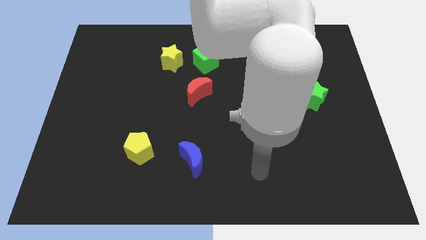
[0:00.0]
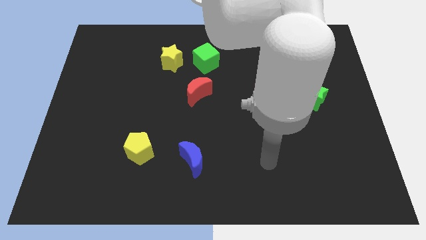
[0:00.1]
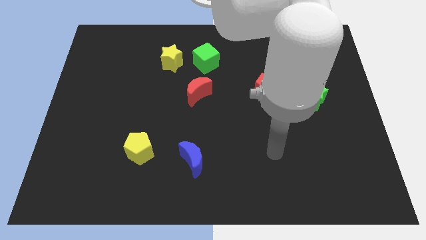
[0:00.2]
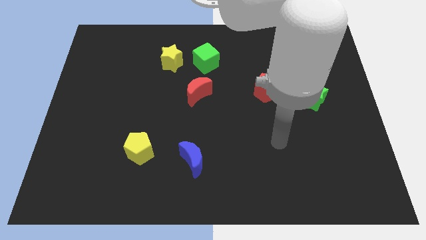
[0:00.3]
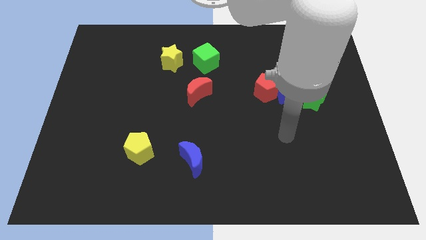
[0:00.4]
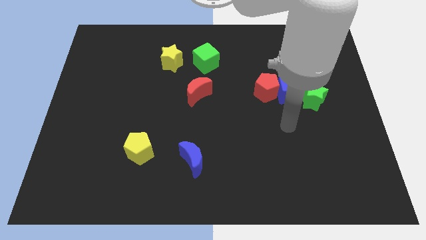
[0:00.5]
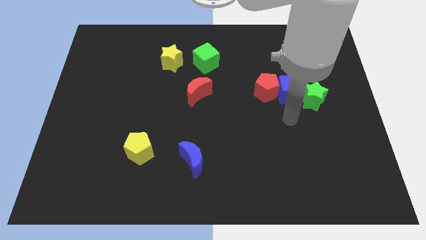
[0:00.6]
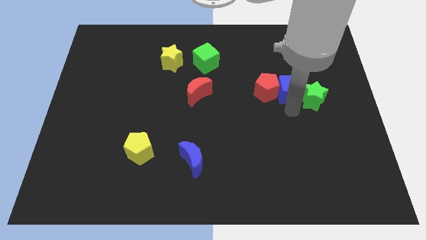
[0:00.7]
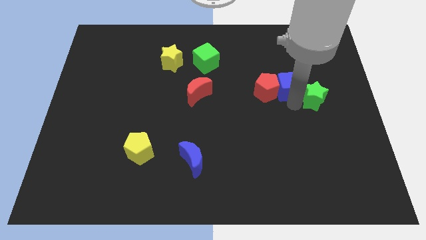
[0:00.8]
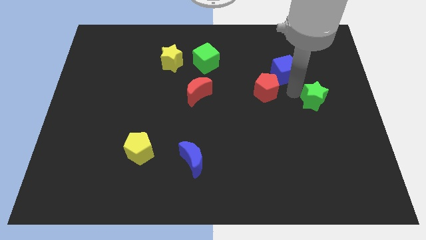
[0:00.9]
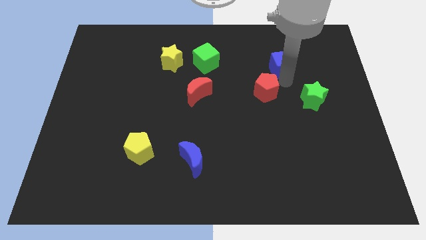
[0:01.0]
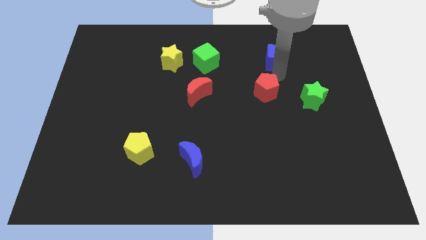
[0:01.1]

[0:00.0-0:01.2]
separate the red pentagon from the blue cube

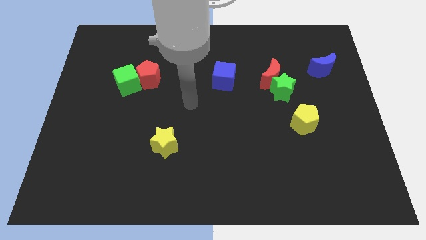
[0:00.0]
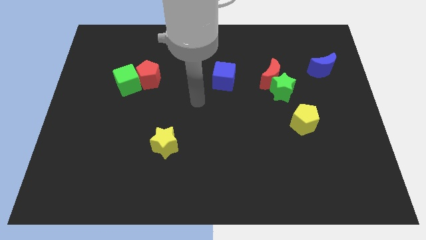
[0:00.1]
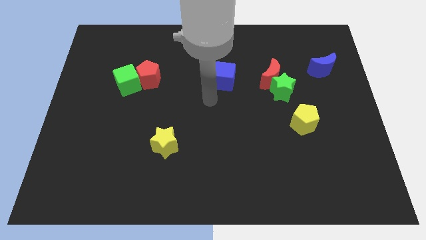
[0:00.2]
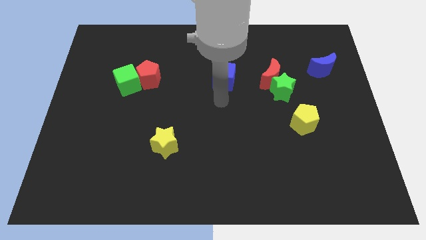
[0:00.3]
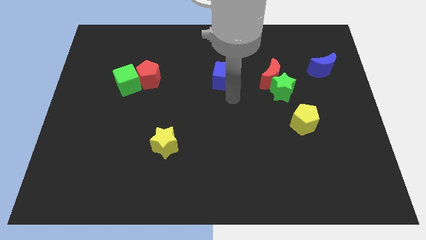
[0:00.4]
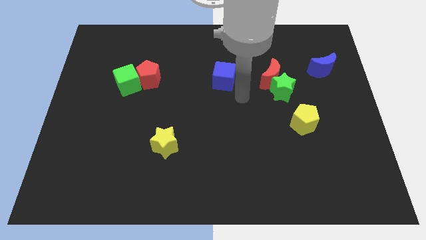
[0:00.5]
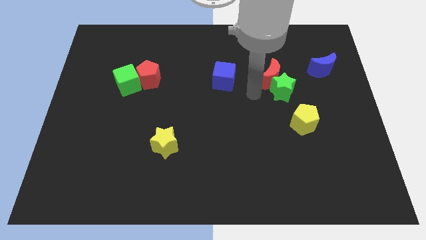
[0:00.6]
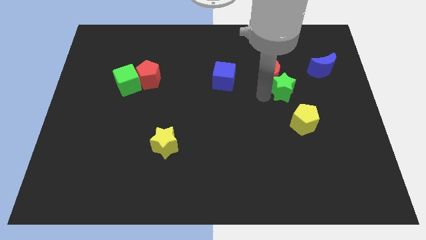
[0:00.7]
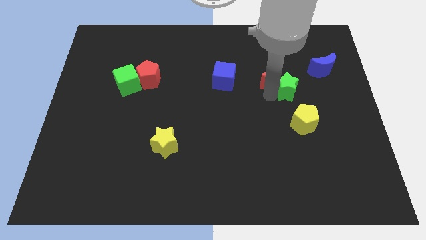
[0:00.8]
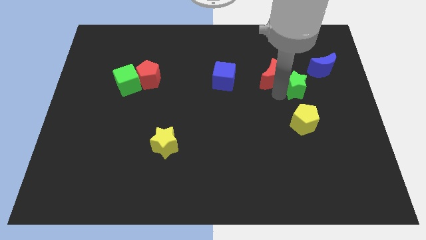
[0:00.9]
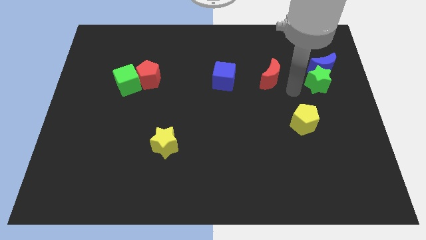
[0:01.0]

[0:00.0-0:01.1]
pull the red moon apart from the green star

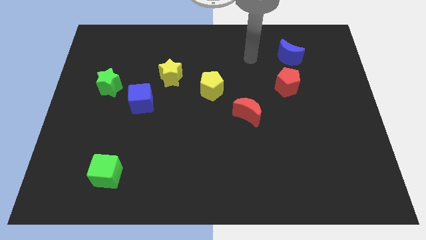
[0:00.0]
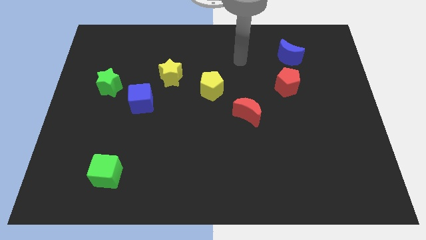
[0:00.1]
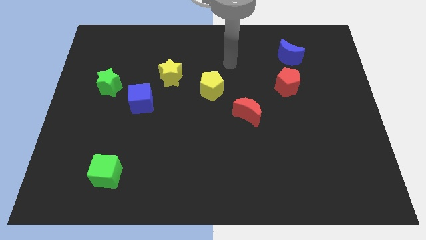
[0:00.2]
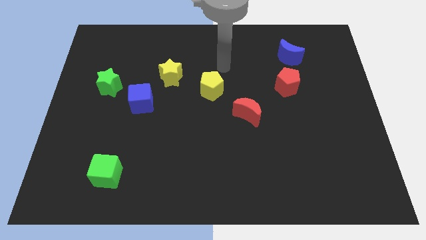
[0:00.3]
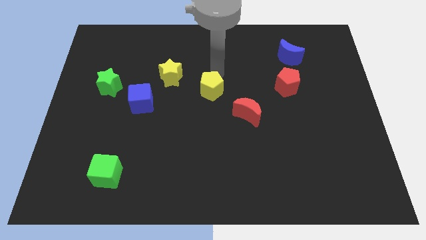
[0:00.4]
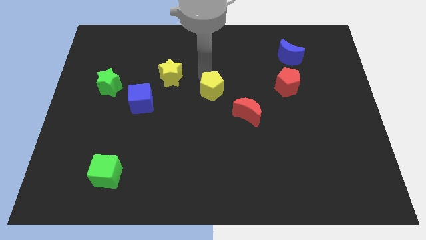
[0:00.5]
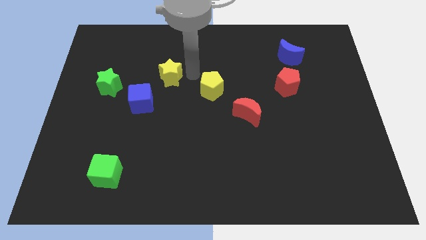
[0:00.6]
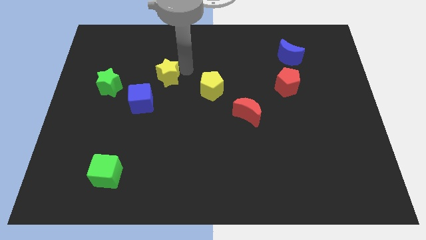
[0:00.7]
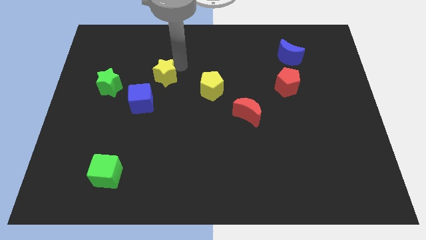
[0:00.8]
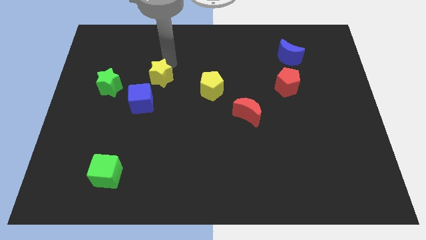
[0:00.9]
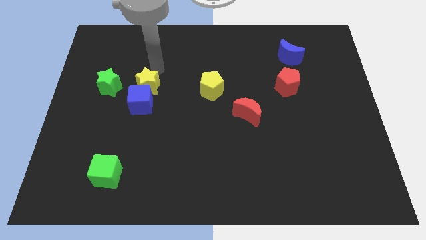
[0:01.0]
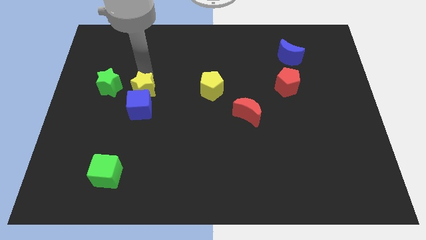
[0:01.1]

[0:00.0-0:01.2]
pull the blue cube apart from the green star

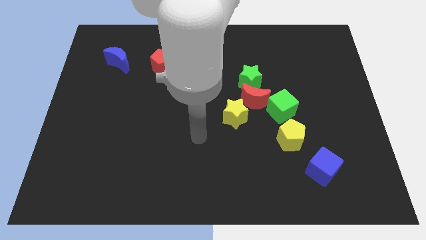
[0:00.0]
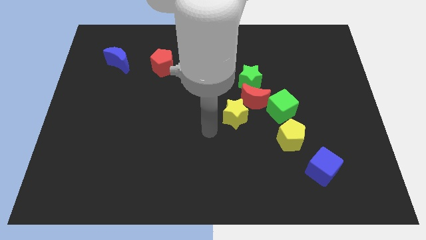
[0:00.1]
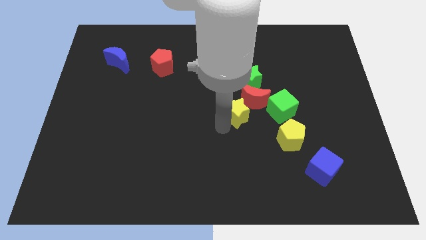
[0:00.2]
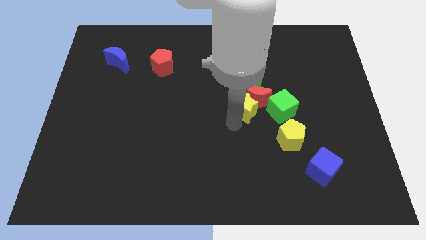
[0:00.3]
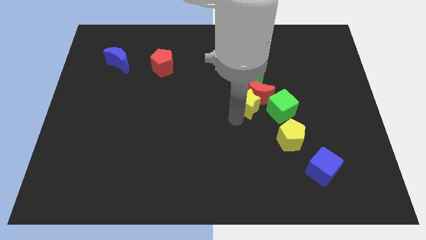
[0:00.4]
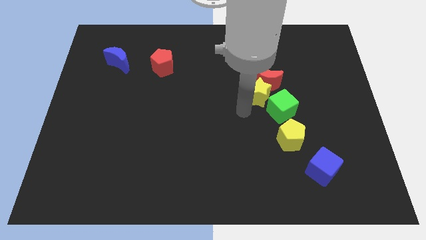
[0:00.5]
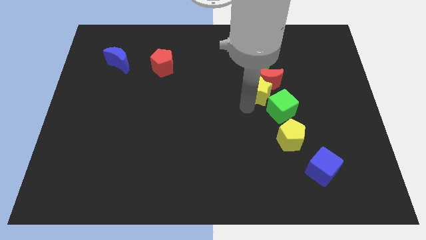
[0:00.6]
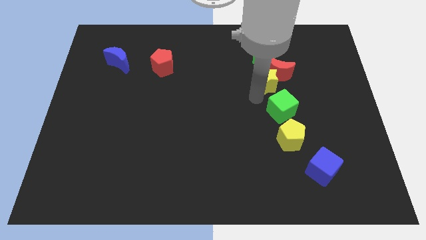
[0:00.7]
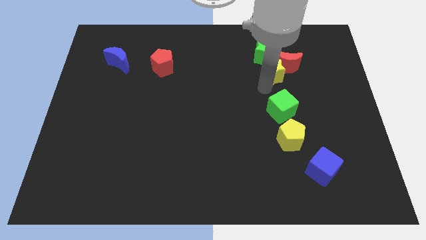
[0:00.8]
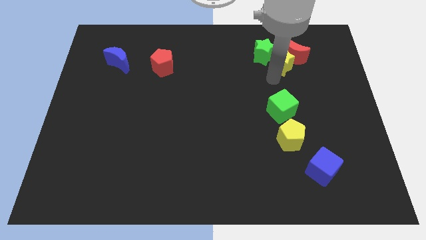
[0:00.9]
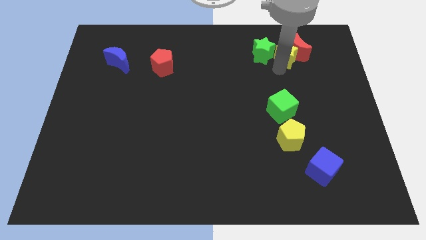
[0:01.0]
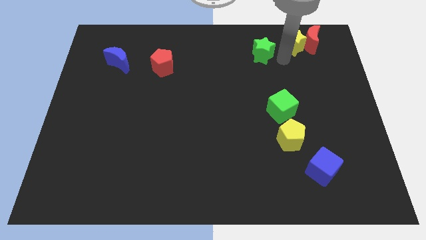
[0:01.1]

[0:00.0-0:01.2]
separate the green star from the red moon

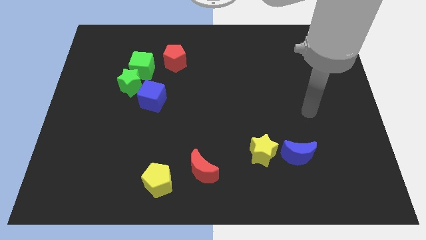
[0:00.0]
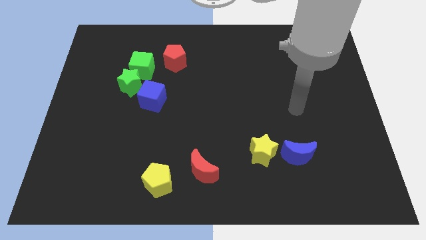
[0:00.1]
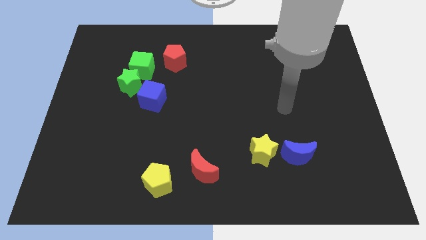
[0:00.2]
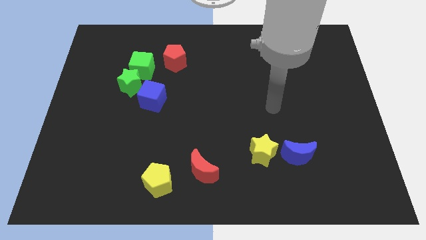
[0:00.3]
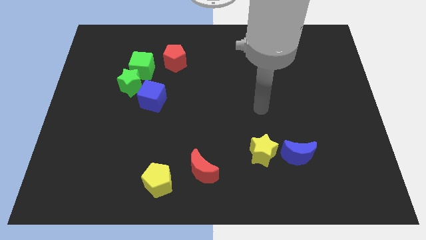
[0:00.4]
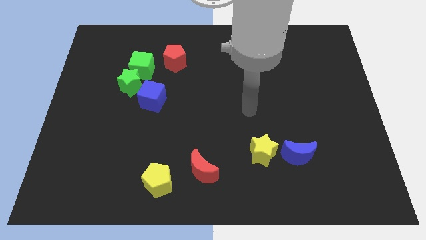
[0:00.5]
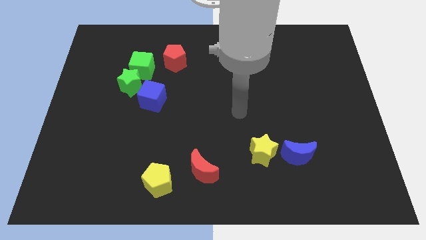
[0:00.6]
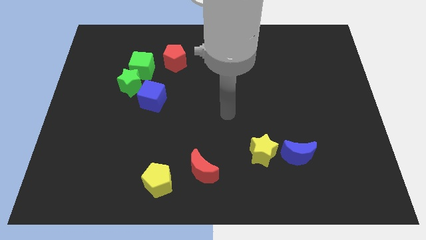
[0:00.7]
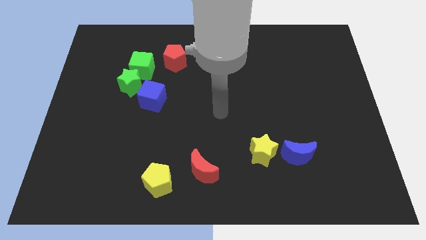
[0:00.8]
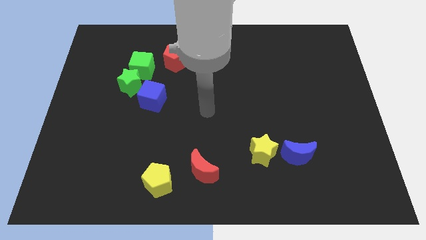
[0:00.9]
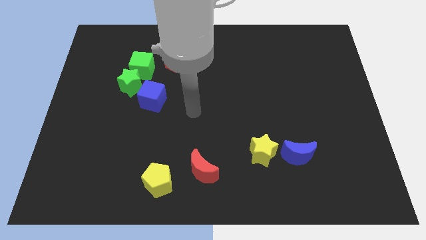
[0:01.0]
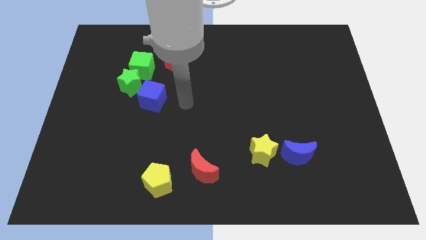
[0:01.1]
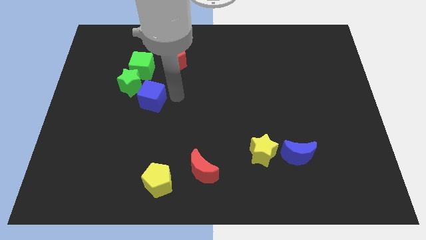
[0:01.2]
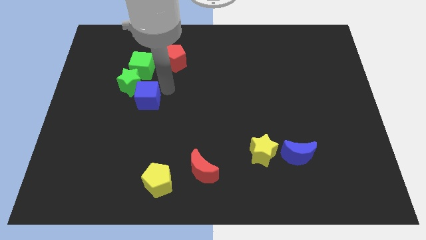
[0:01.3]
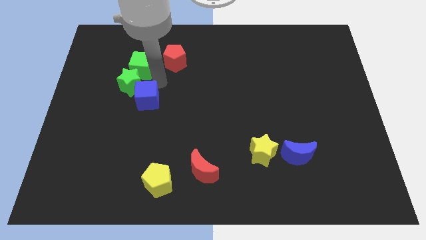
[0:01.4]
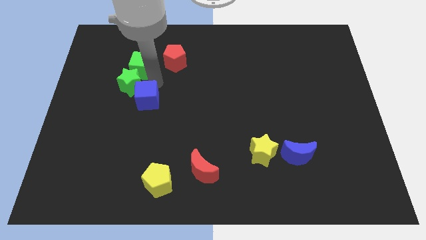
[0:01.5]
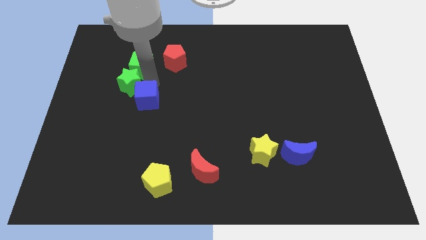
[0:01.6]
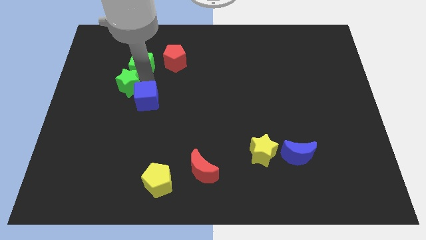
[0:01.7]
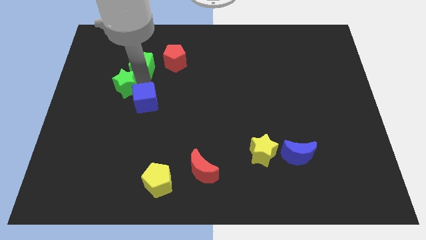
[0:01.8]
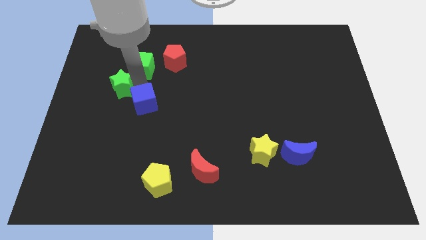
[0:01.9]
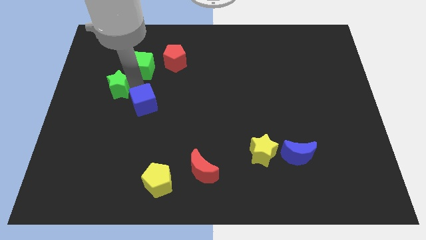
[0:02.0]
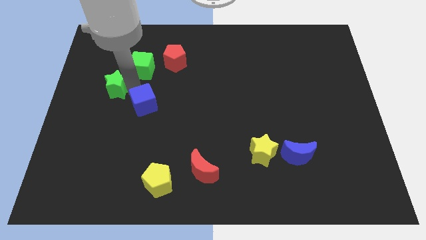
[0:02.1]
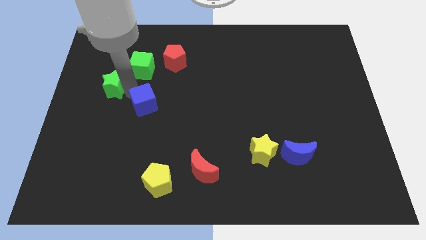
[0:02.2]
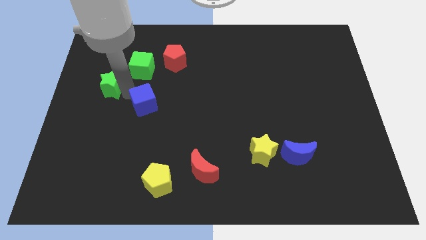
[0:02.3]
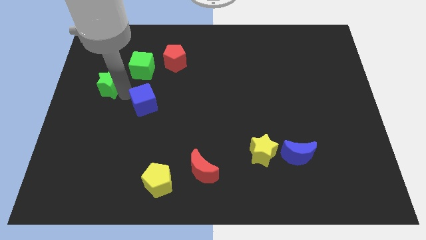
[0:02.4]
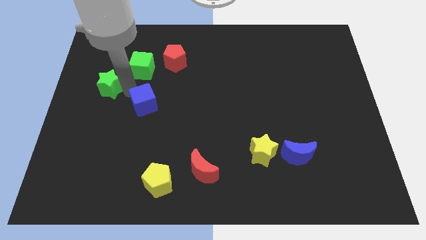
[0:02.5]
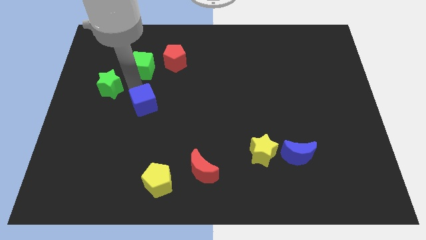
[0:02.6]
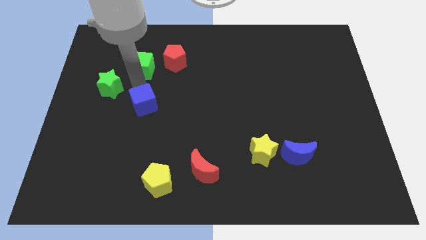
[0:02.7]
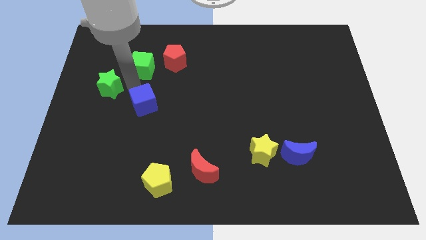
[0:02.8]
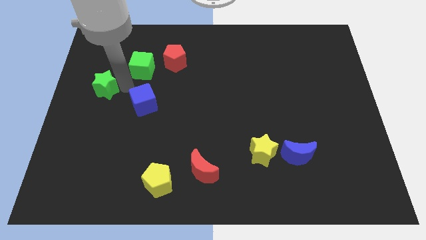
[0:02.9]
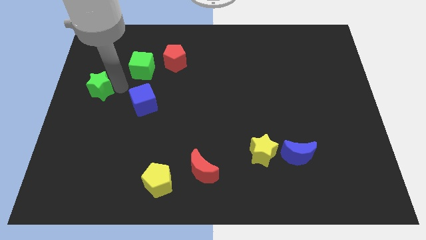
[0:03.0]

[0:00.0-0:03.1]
move the green star away from the green cube and blue cube

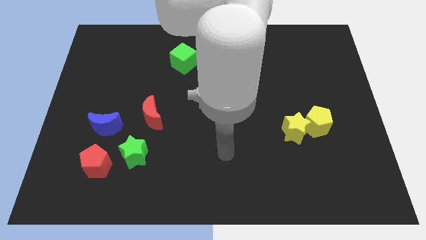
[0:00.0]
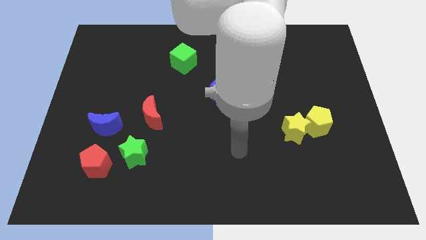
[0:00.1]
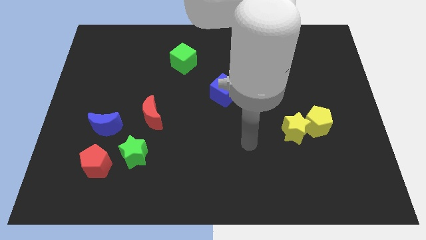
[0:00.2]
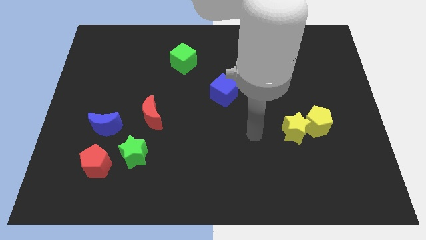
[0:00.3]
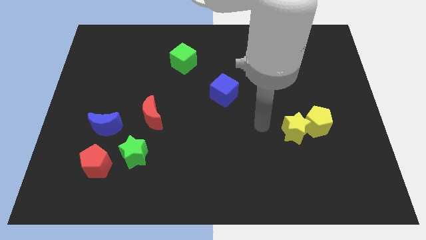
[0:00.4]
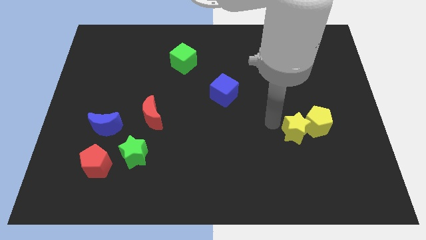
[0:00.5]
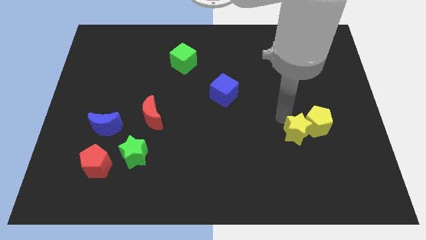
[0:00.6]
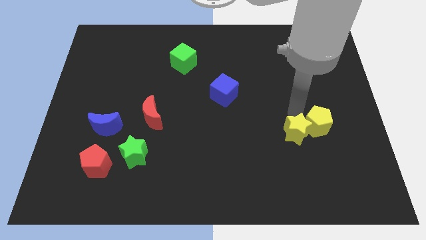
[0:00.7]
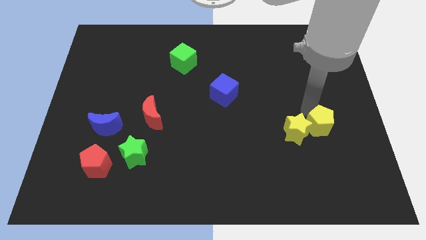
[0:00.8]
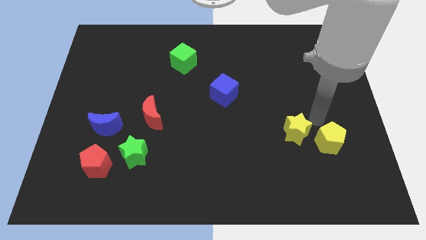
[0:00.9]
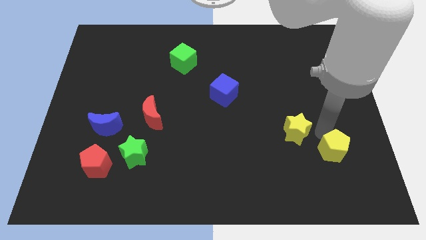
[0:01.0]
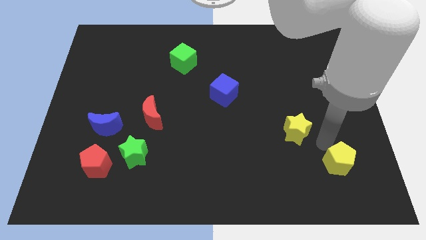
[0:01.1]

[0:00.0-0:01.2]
move the yellow star away from the yellow pentagon

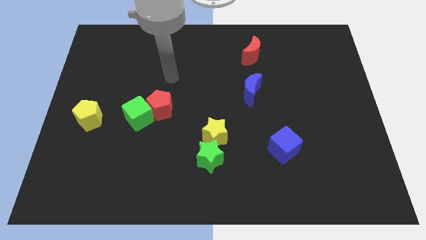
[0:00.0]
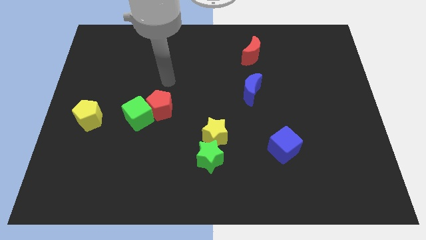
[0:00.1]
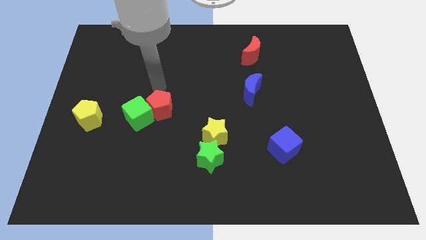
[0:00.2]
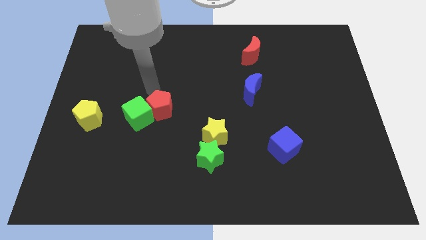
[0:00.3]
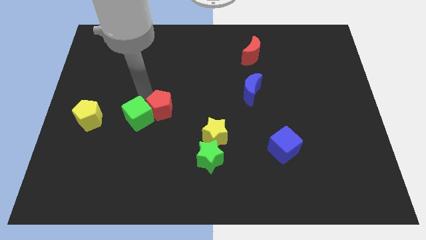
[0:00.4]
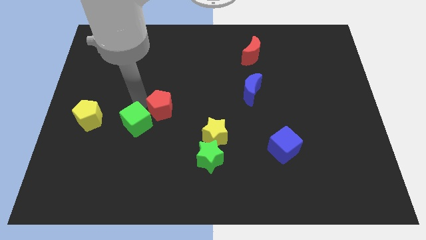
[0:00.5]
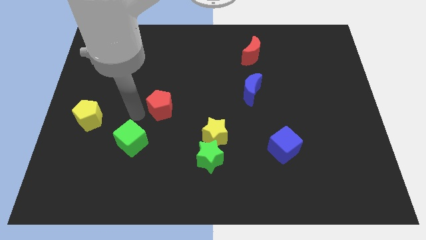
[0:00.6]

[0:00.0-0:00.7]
pull the red pentagon apart from the green cube
